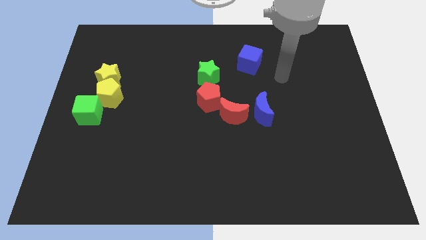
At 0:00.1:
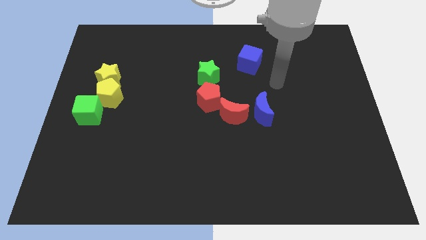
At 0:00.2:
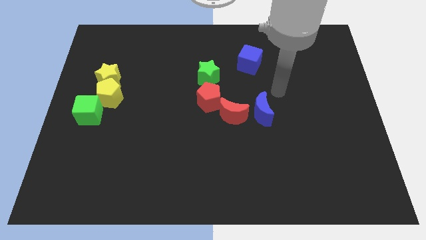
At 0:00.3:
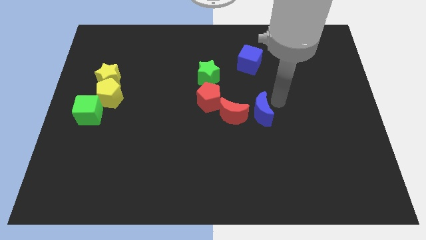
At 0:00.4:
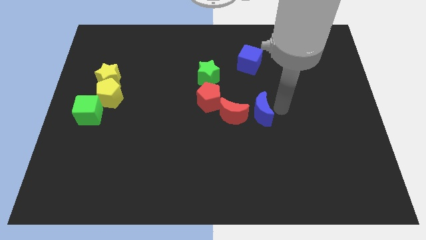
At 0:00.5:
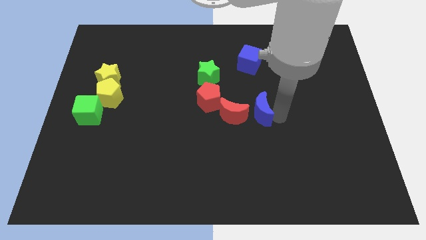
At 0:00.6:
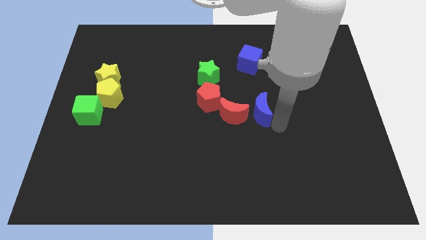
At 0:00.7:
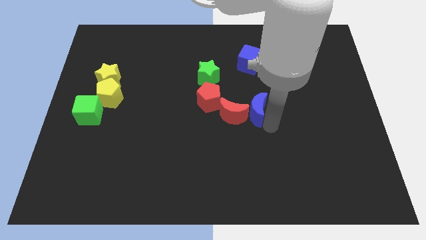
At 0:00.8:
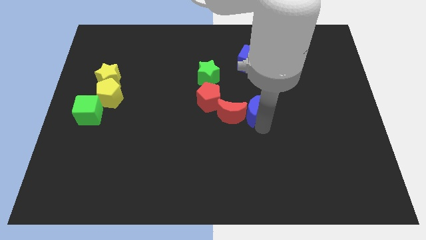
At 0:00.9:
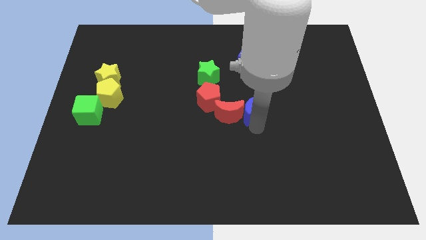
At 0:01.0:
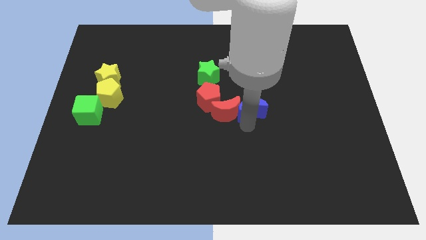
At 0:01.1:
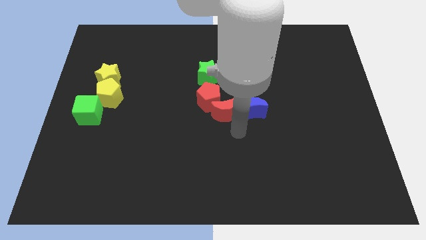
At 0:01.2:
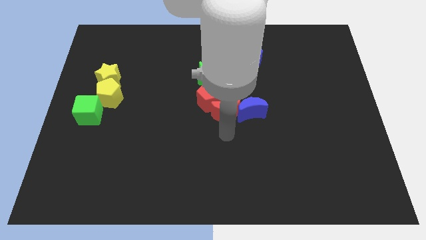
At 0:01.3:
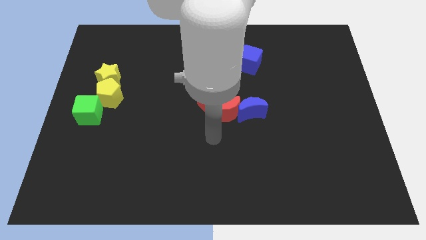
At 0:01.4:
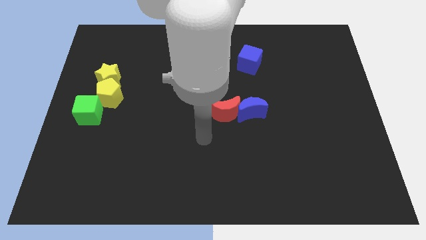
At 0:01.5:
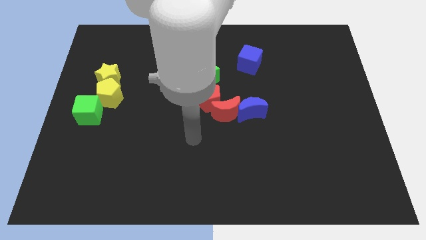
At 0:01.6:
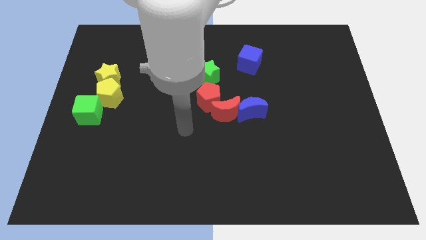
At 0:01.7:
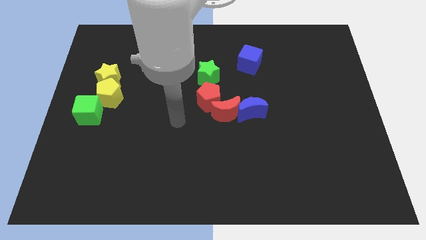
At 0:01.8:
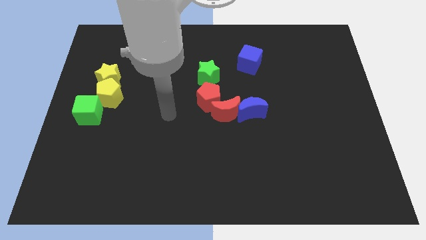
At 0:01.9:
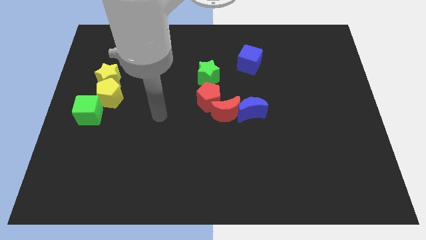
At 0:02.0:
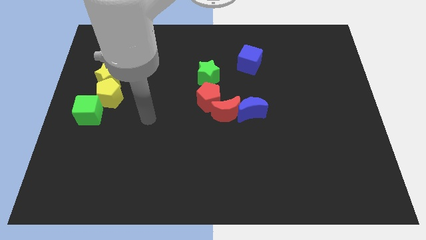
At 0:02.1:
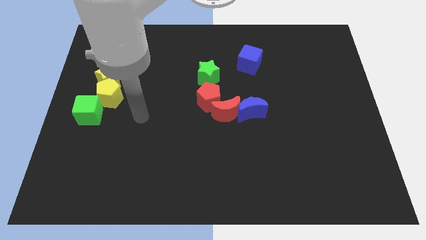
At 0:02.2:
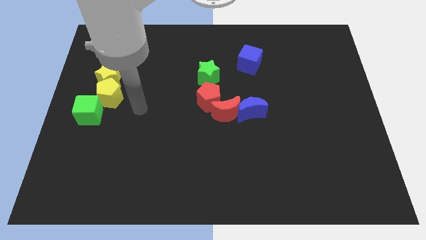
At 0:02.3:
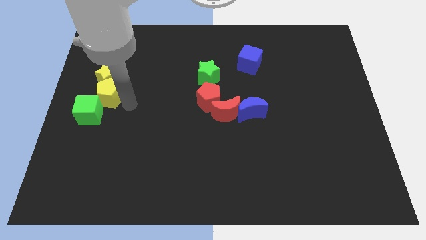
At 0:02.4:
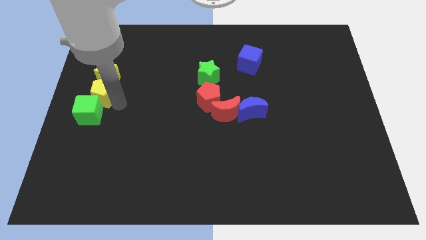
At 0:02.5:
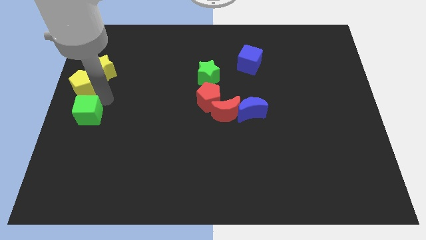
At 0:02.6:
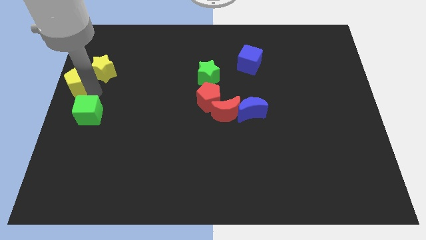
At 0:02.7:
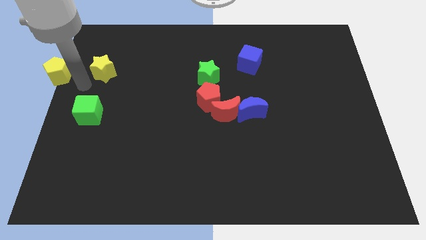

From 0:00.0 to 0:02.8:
pull the yellow star apart from the yellow pentagon

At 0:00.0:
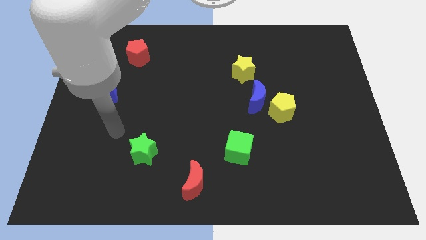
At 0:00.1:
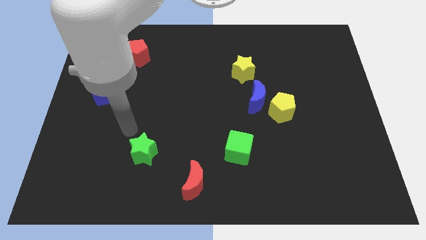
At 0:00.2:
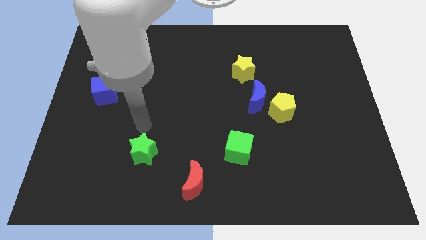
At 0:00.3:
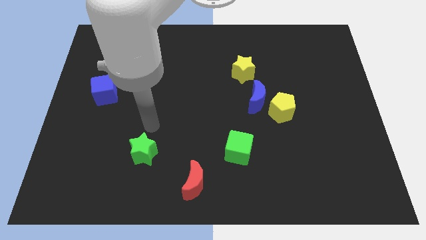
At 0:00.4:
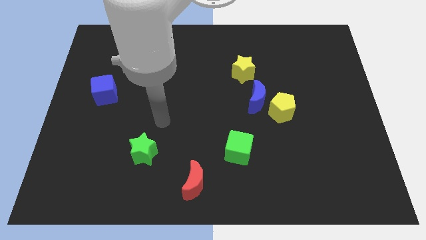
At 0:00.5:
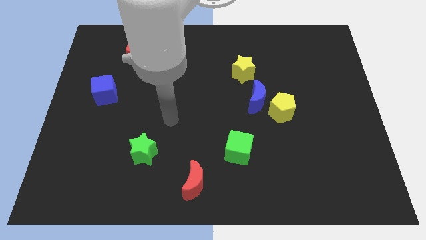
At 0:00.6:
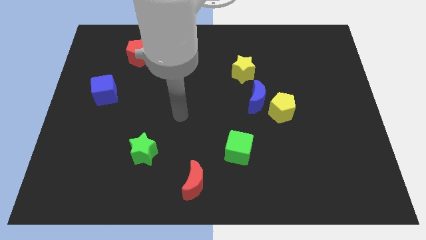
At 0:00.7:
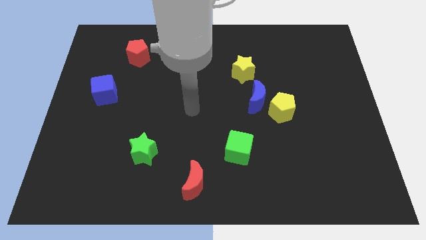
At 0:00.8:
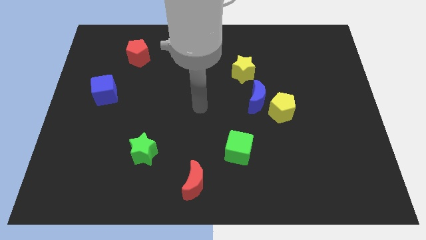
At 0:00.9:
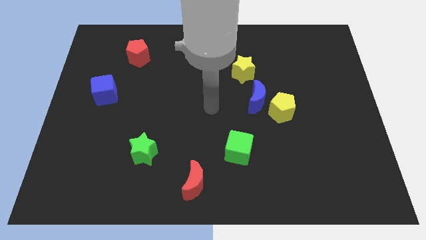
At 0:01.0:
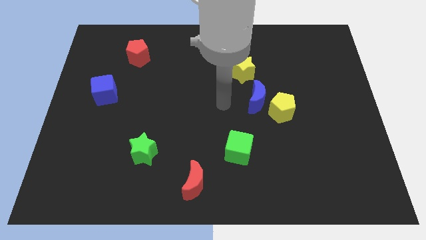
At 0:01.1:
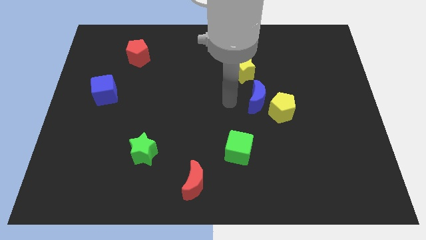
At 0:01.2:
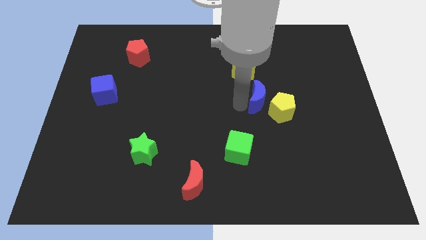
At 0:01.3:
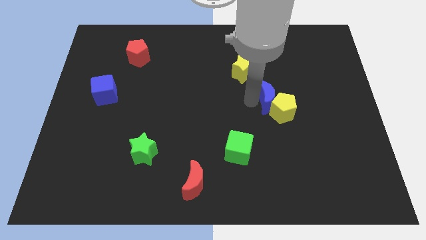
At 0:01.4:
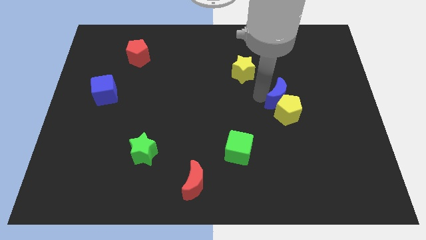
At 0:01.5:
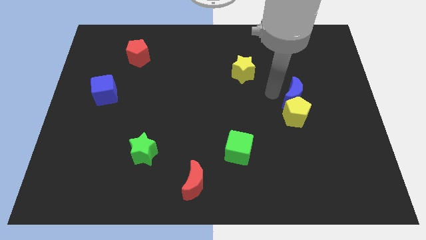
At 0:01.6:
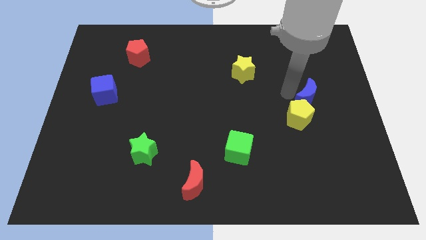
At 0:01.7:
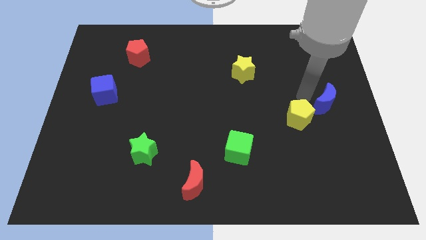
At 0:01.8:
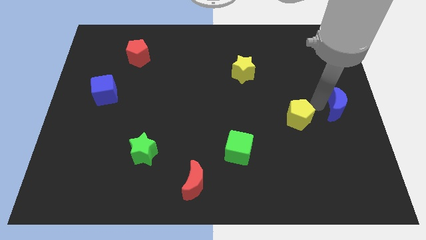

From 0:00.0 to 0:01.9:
pull the yellow pentagon apart from the blue moon

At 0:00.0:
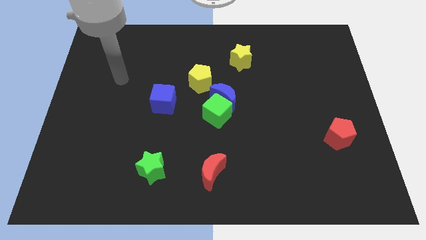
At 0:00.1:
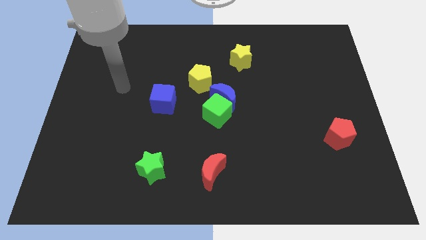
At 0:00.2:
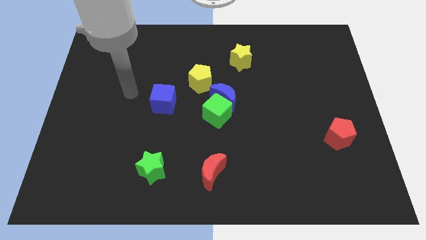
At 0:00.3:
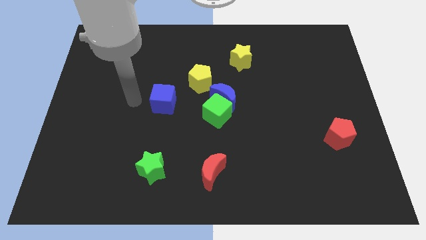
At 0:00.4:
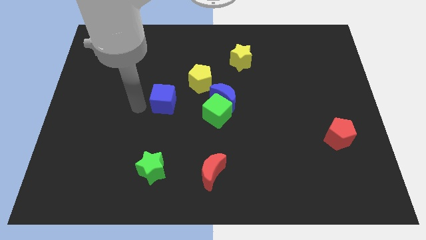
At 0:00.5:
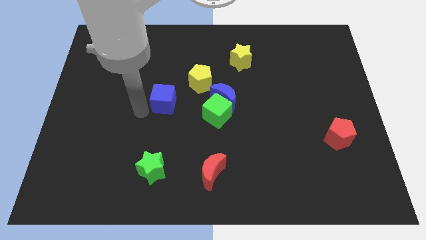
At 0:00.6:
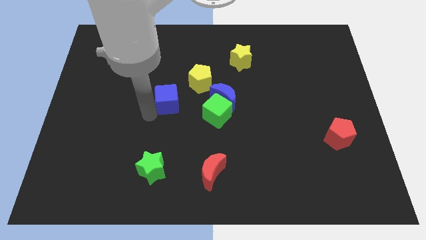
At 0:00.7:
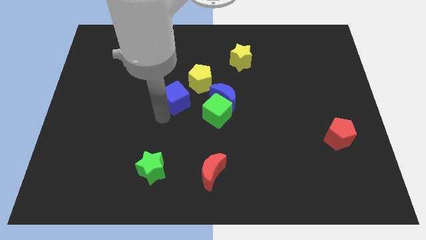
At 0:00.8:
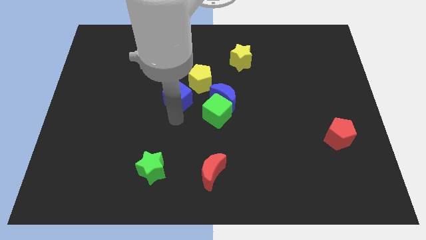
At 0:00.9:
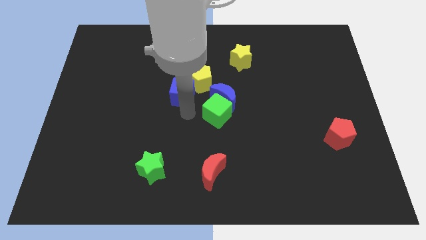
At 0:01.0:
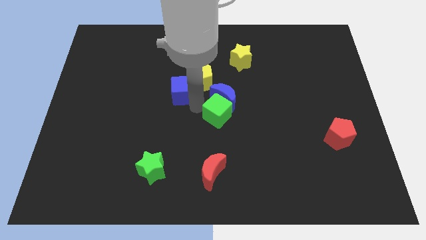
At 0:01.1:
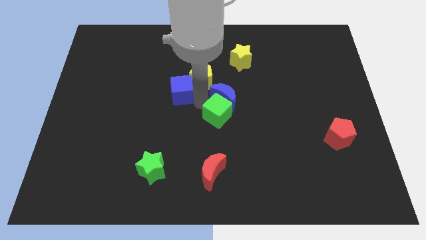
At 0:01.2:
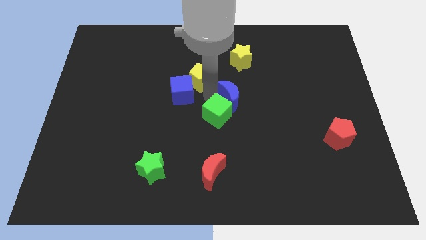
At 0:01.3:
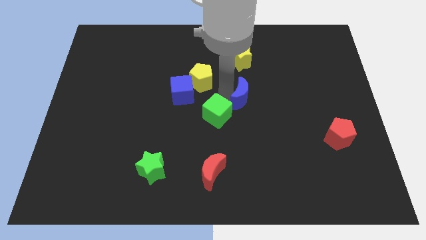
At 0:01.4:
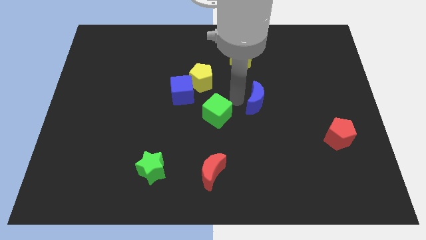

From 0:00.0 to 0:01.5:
pull the green cube apart from the blue moon

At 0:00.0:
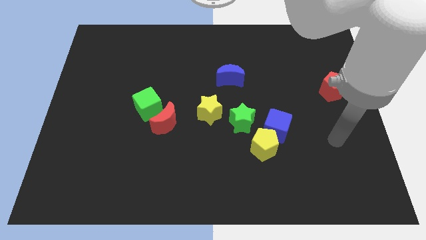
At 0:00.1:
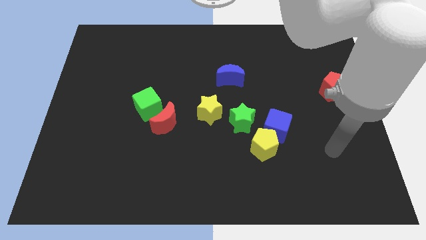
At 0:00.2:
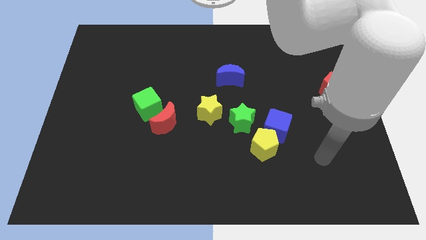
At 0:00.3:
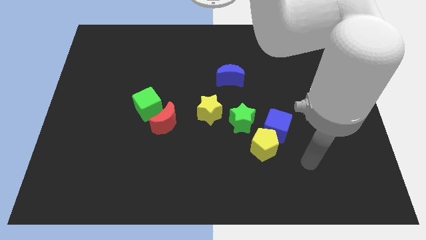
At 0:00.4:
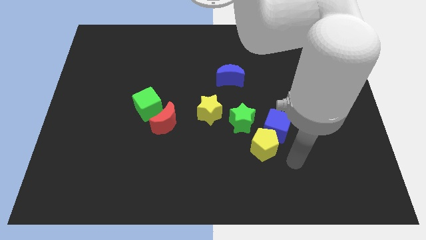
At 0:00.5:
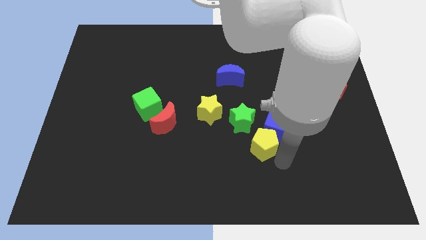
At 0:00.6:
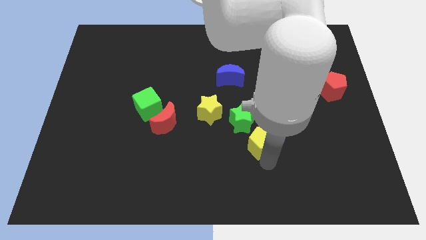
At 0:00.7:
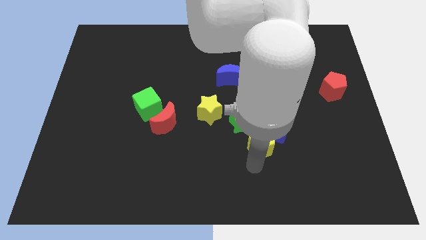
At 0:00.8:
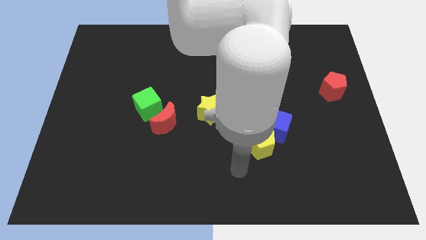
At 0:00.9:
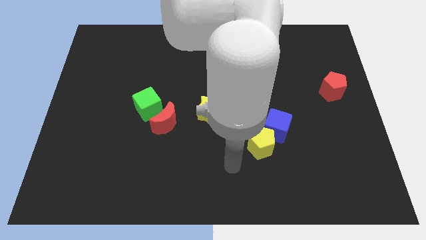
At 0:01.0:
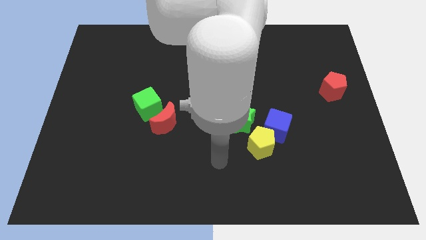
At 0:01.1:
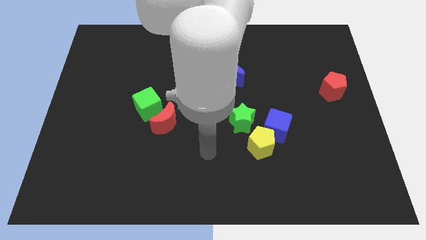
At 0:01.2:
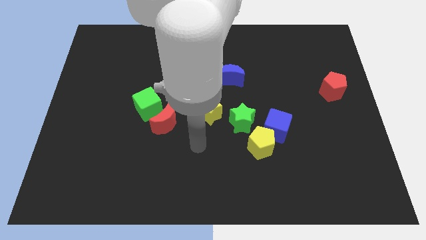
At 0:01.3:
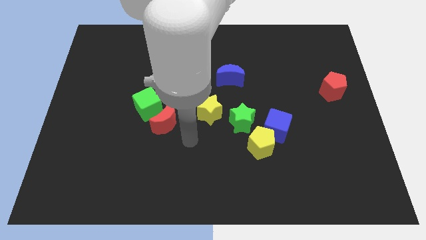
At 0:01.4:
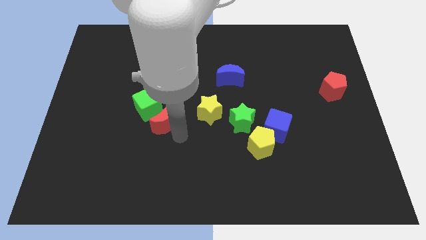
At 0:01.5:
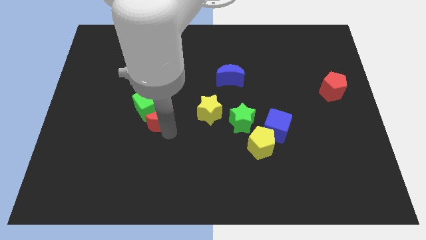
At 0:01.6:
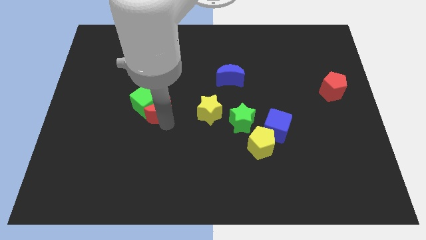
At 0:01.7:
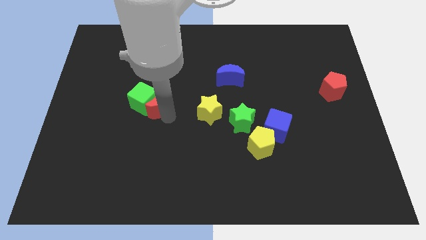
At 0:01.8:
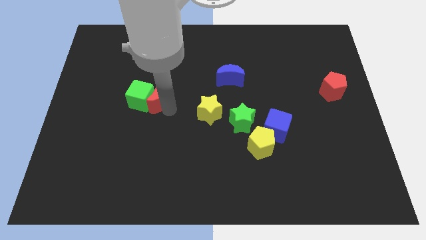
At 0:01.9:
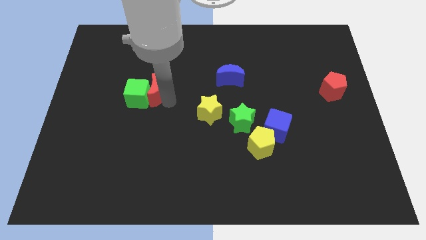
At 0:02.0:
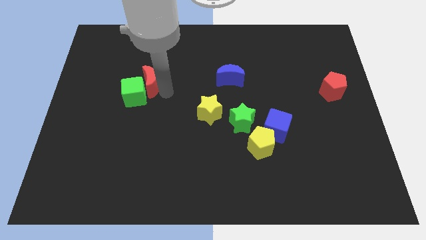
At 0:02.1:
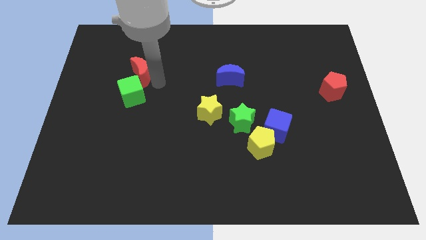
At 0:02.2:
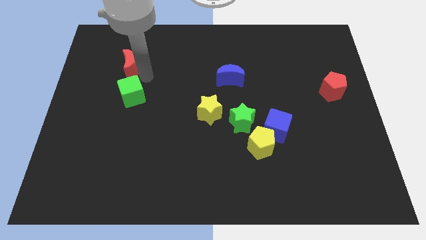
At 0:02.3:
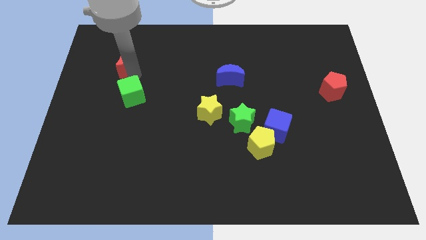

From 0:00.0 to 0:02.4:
move the green cube away from the red moon

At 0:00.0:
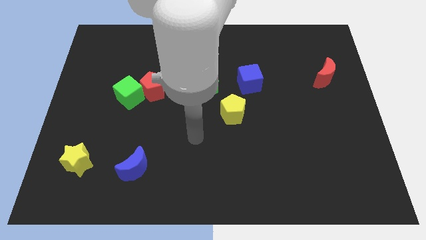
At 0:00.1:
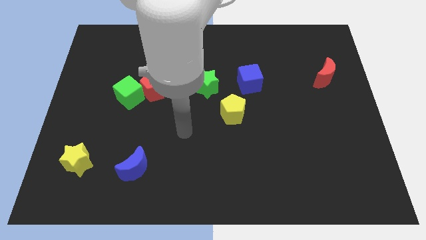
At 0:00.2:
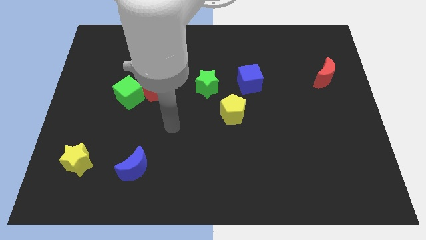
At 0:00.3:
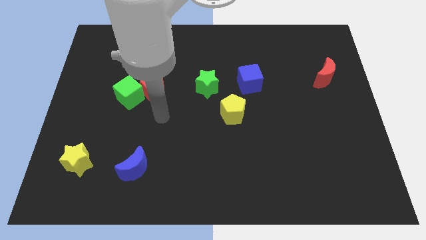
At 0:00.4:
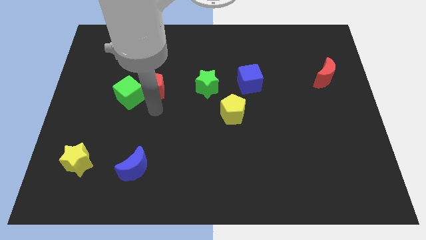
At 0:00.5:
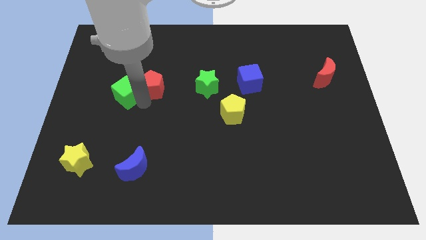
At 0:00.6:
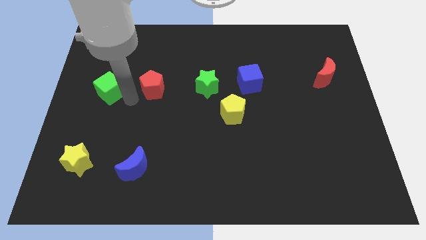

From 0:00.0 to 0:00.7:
move the red pentagon away from the green cube
